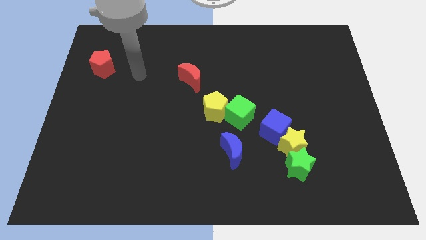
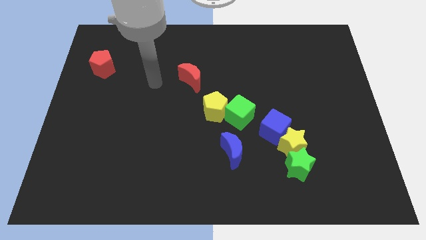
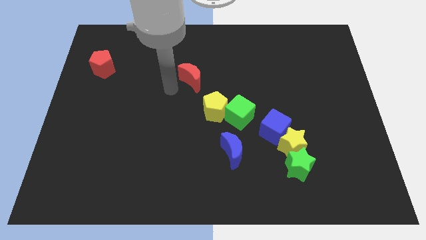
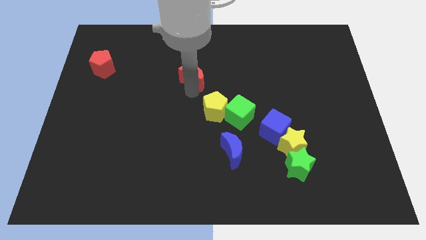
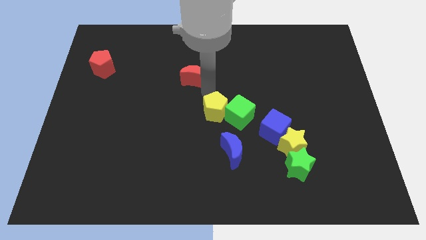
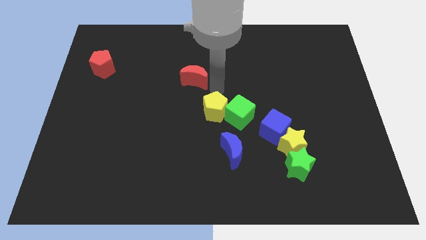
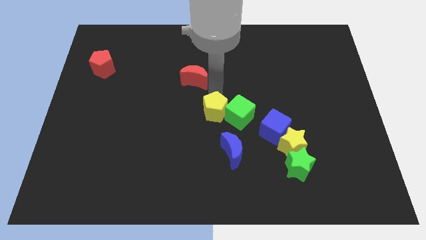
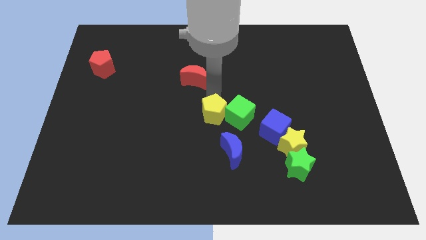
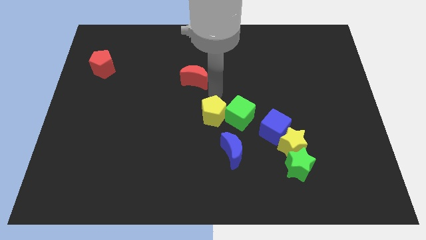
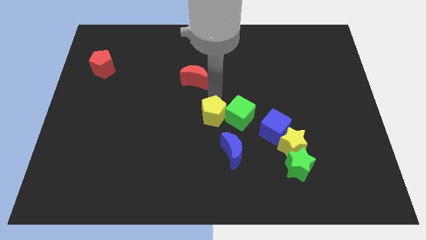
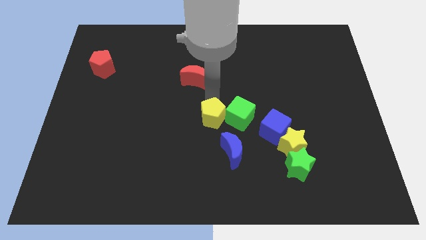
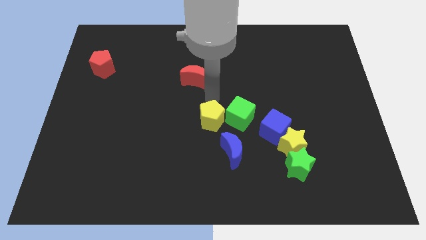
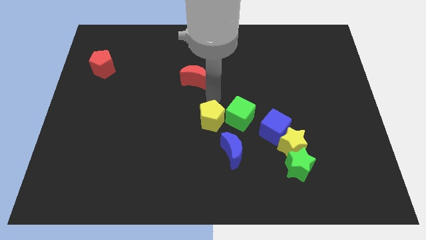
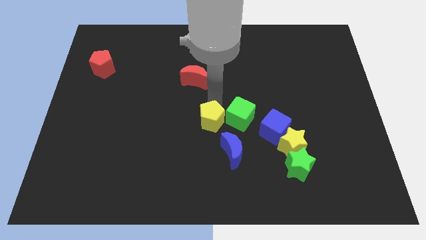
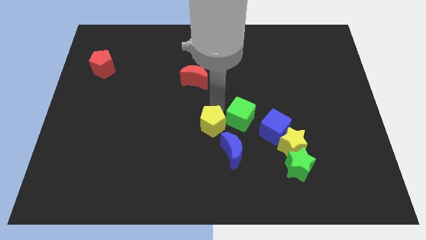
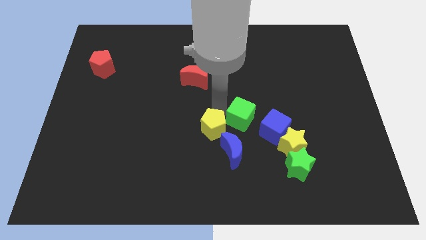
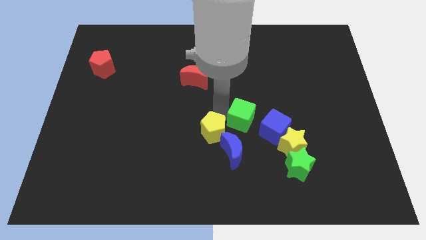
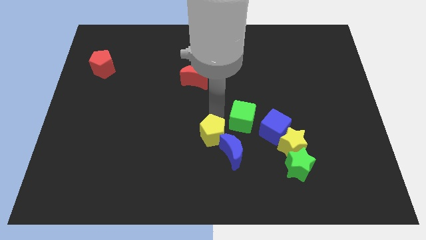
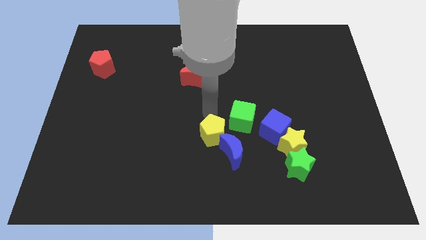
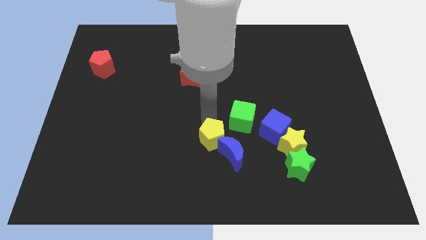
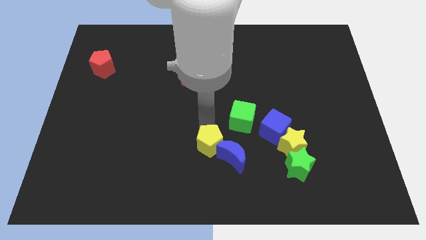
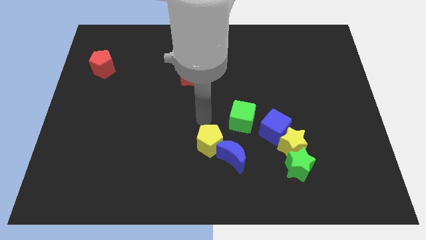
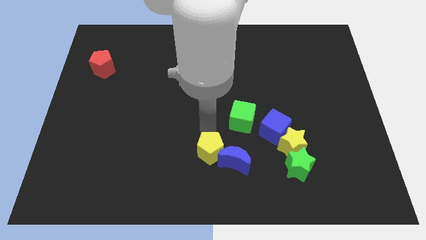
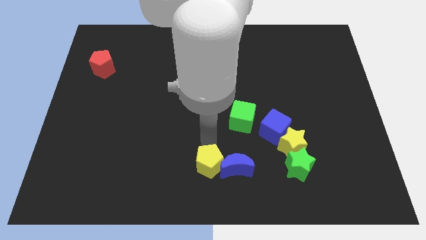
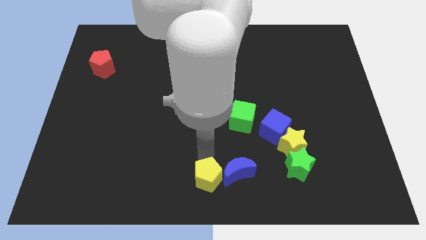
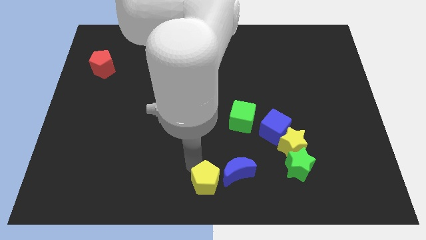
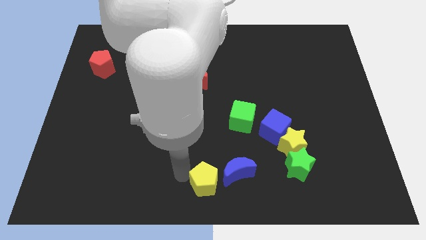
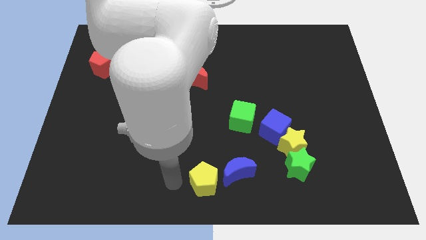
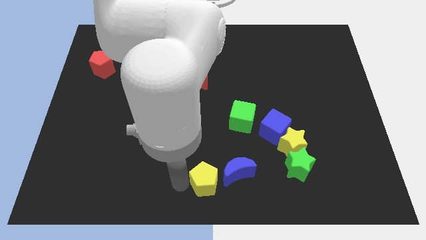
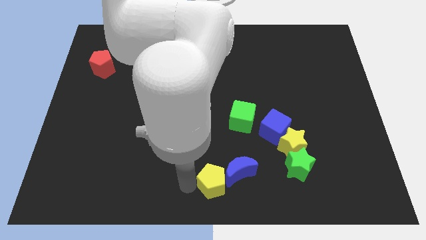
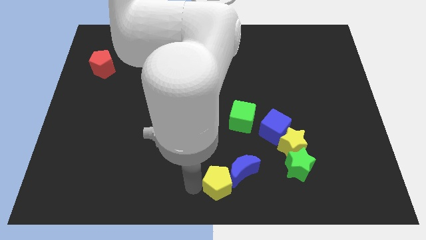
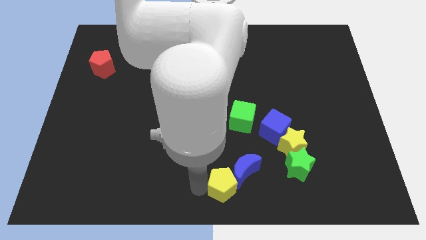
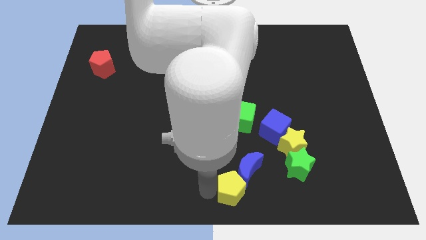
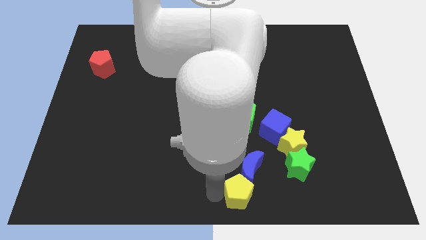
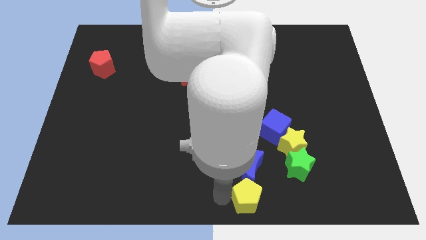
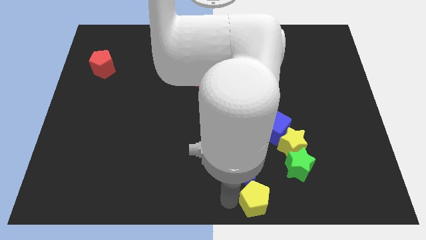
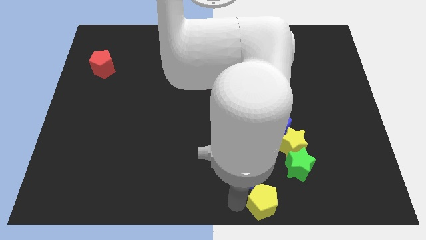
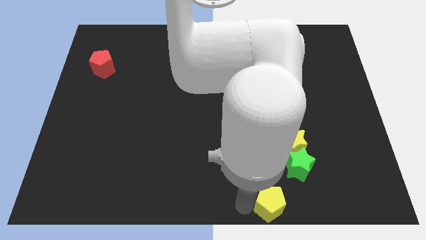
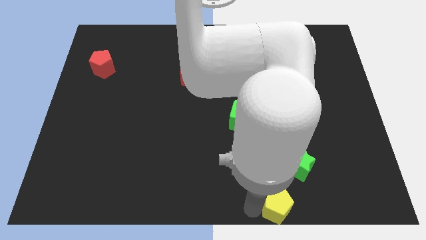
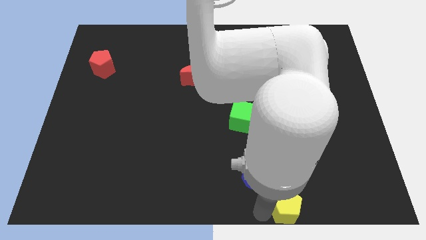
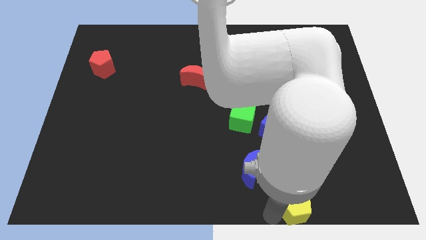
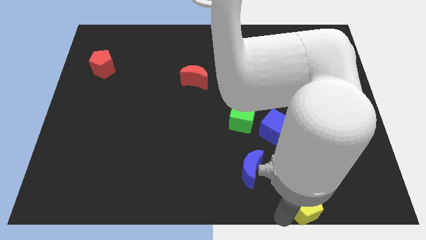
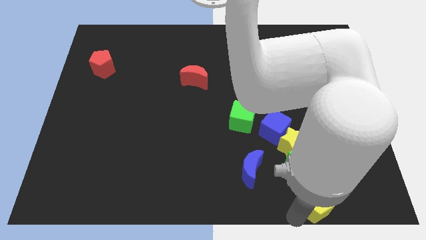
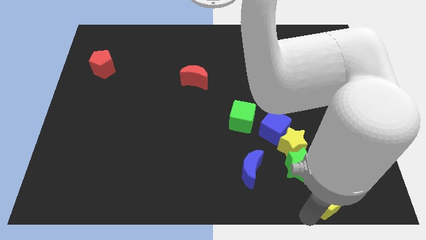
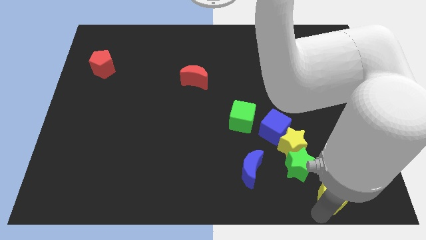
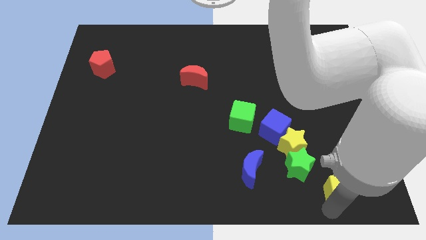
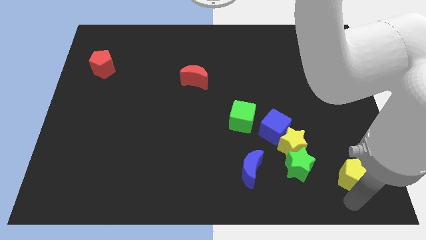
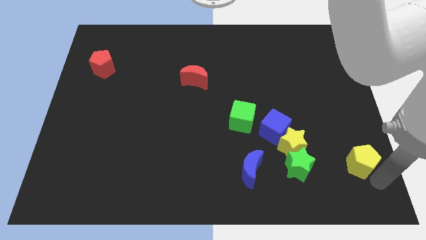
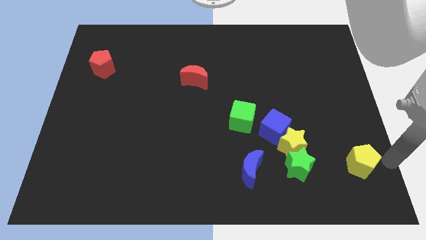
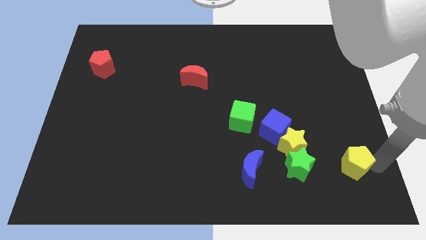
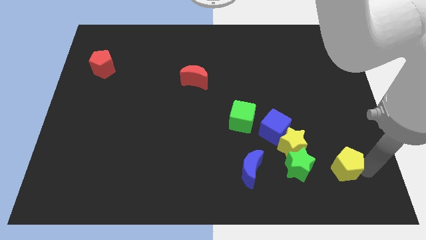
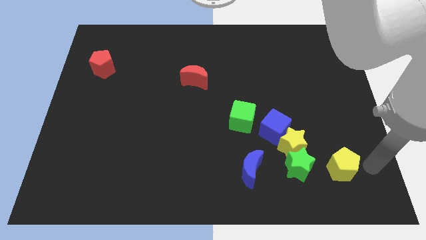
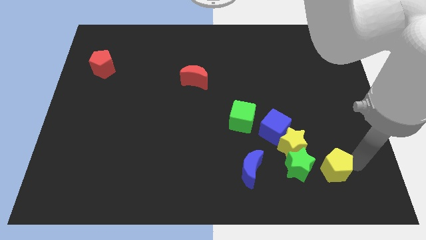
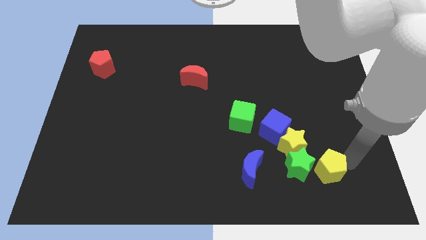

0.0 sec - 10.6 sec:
put the yellow pentagon close to the green star

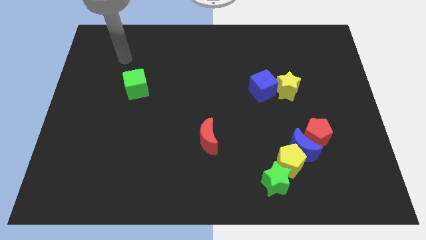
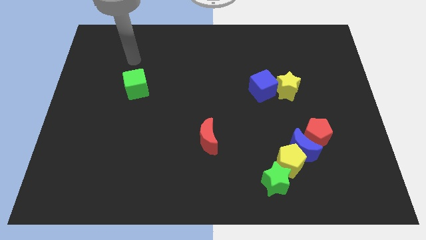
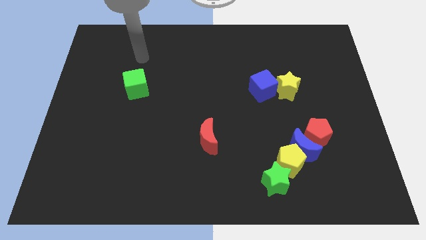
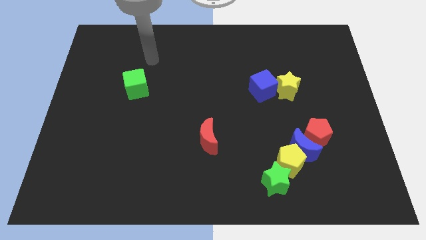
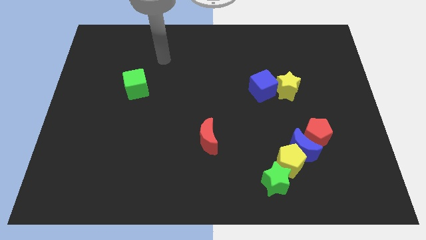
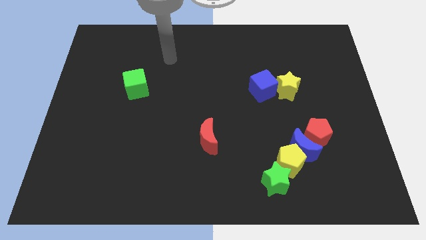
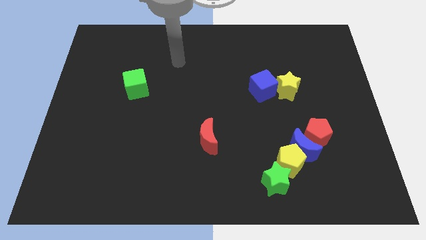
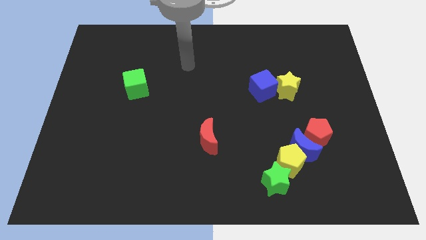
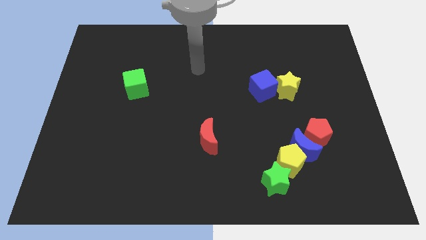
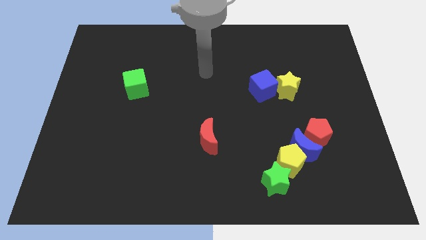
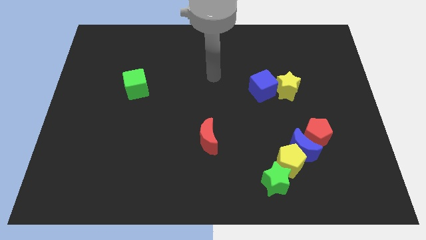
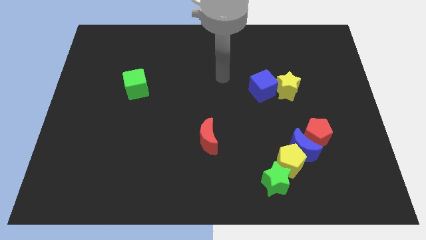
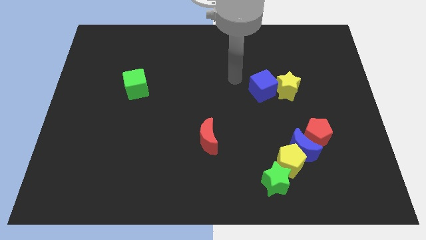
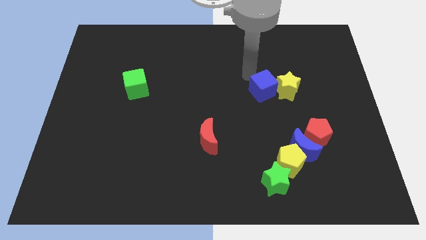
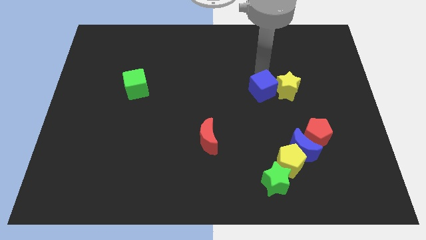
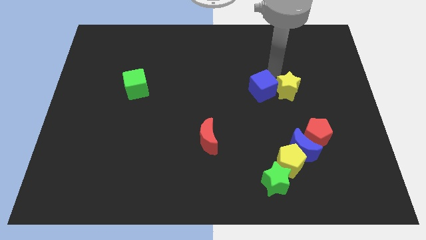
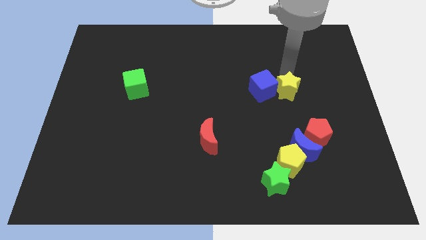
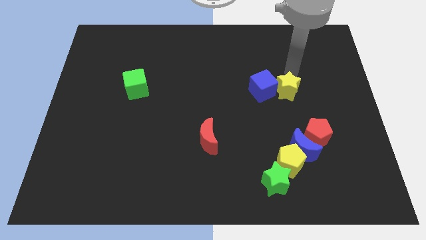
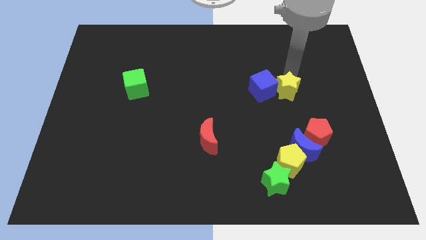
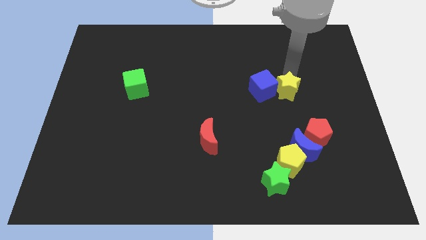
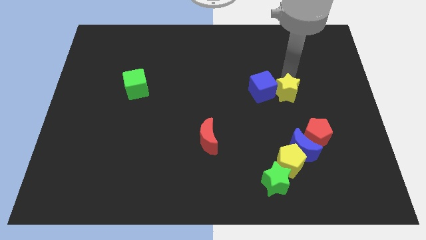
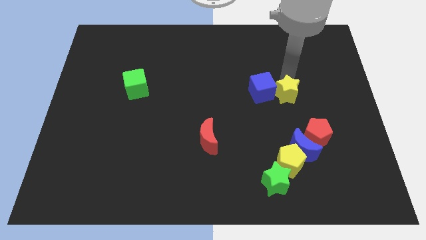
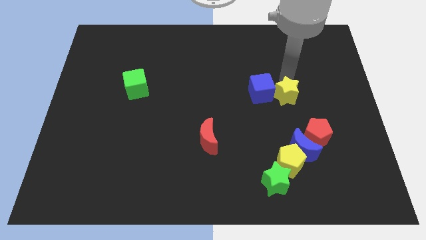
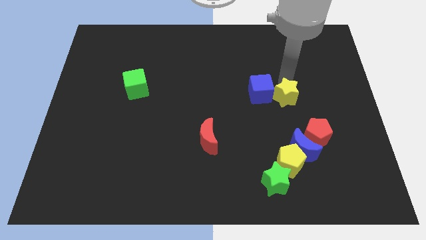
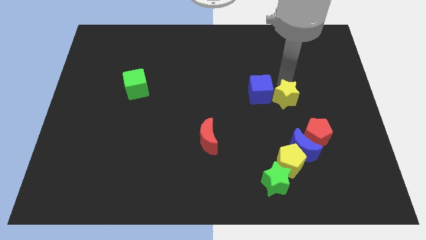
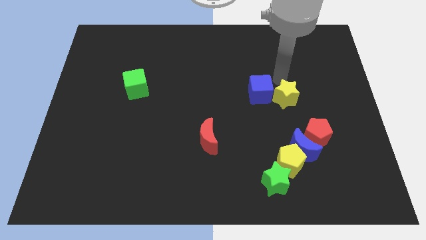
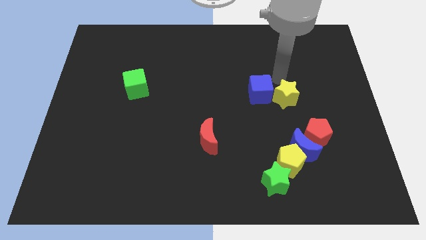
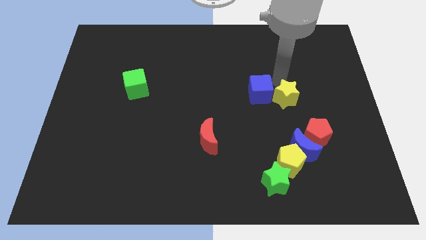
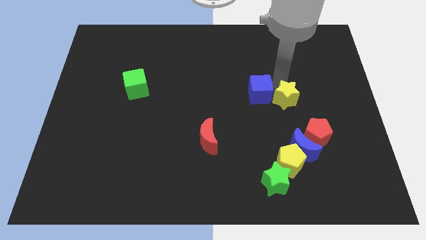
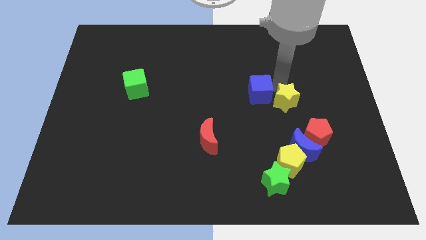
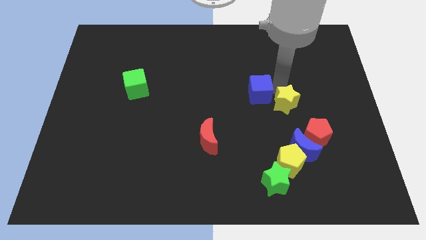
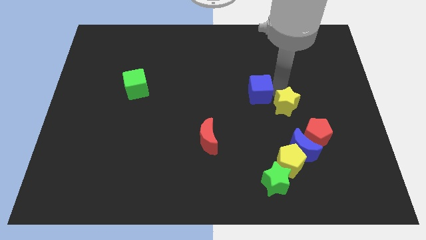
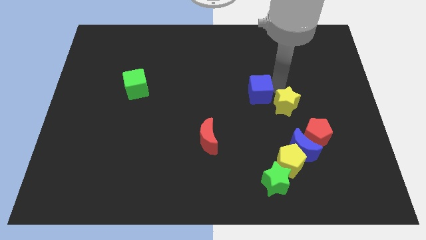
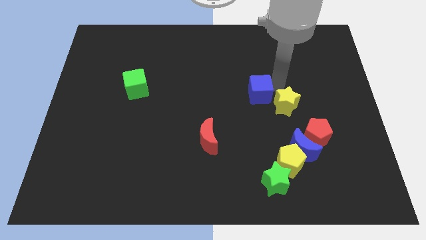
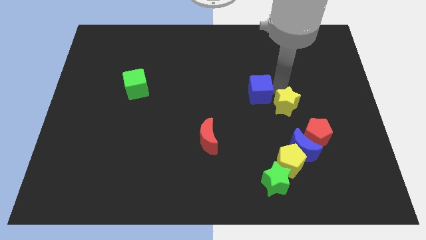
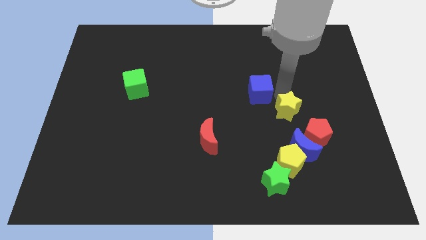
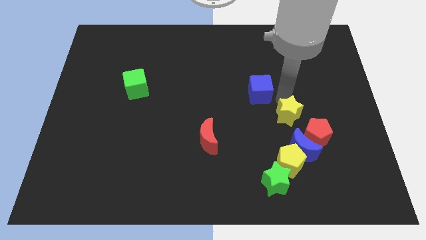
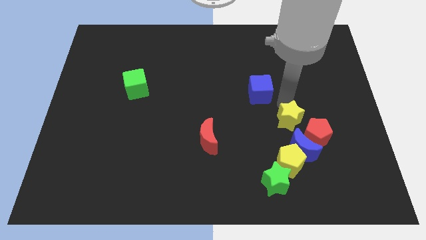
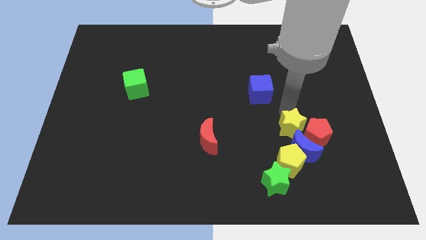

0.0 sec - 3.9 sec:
slide the yellow star next to the blue moon
